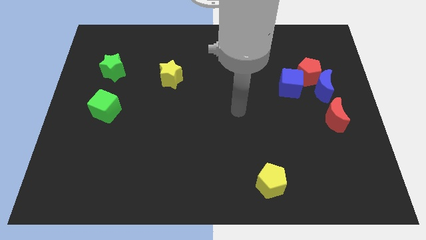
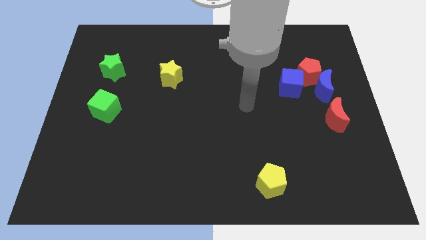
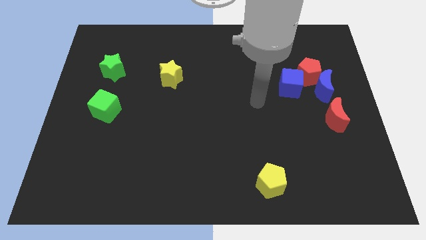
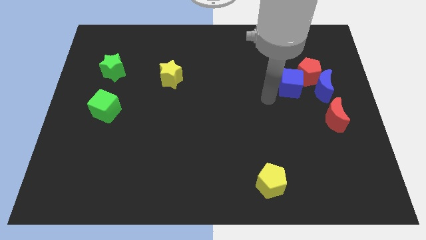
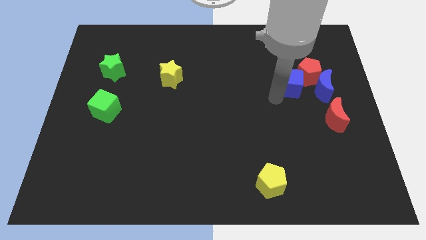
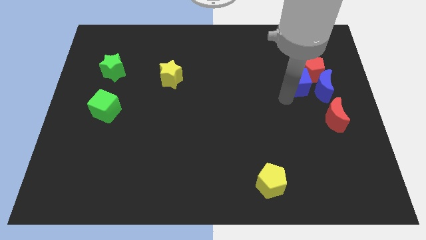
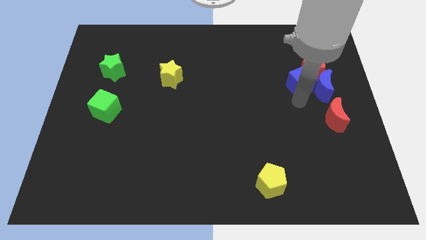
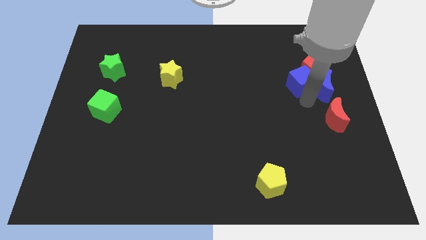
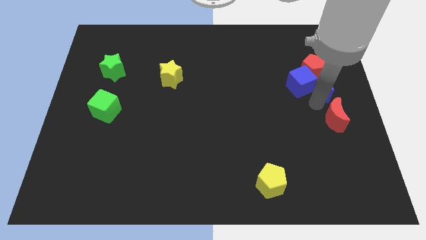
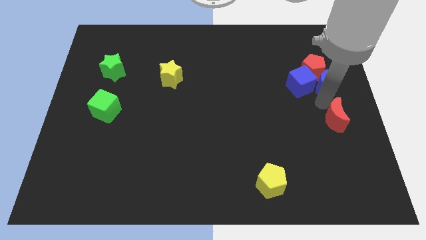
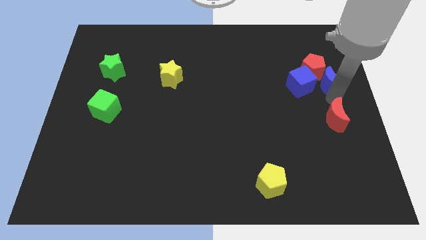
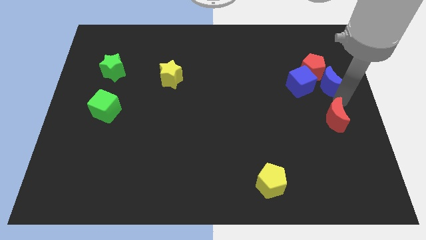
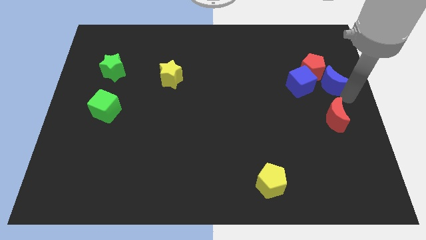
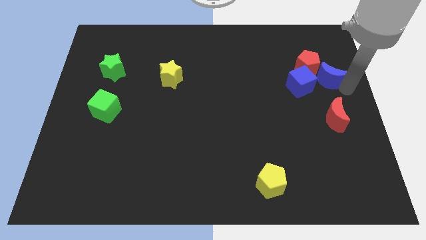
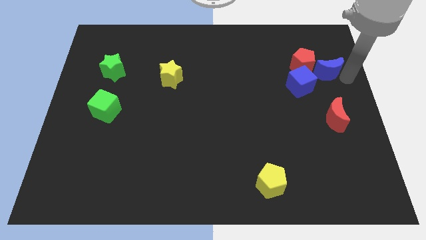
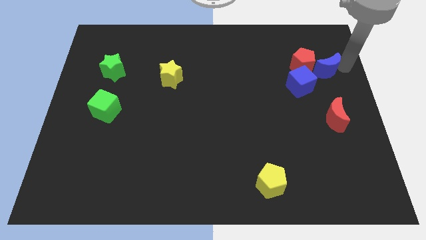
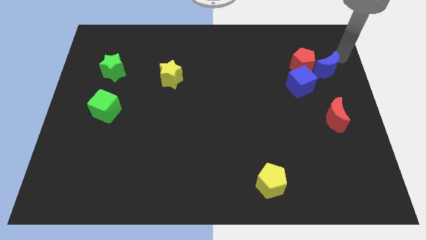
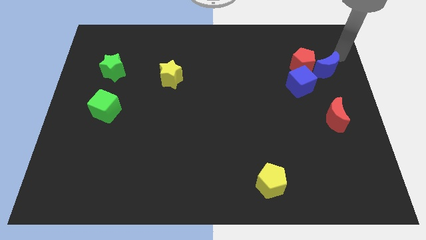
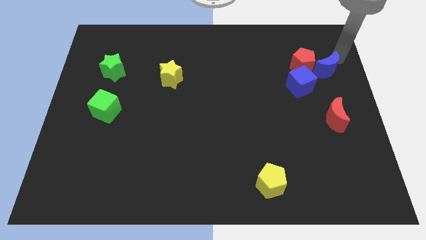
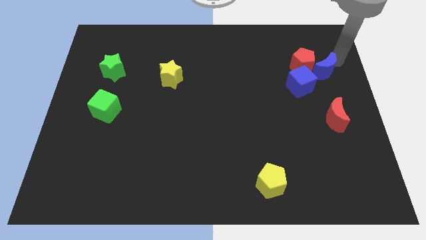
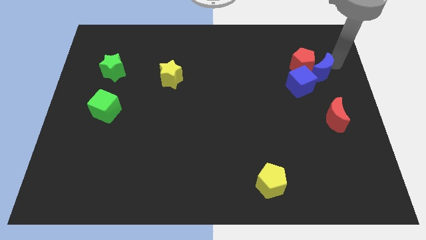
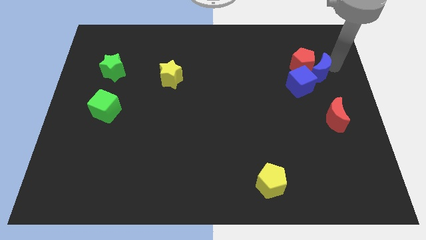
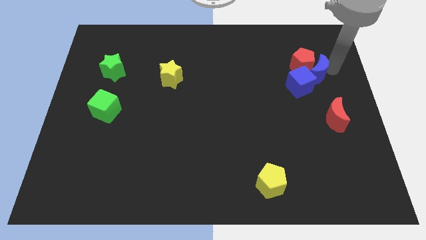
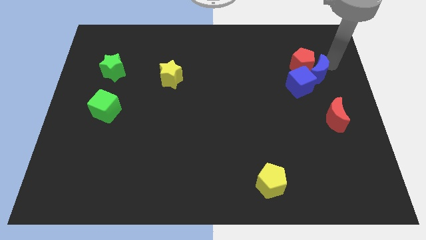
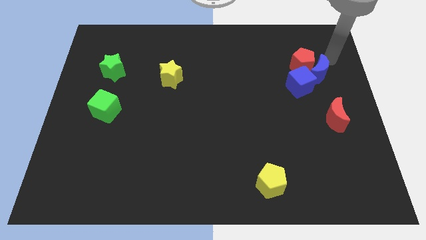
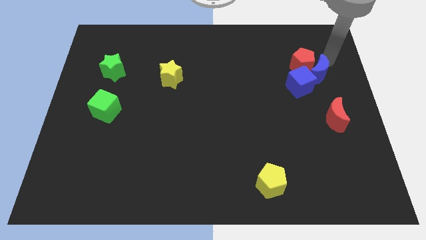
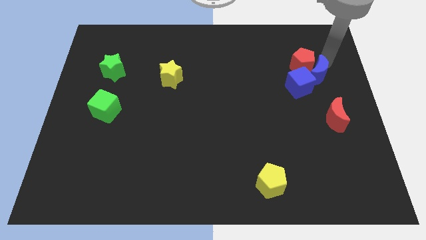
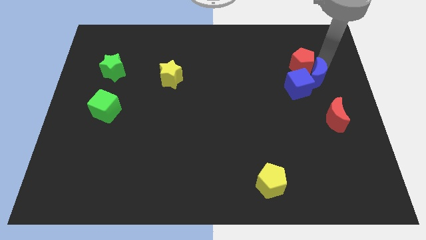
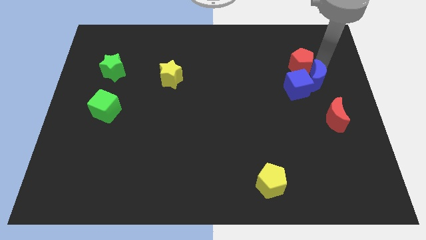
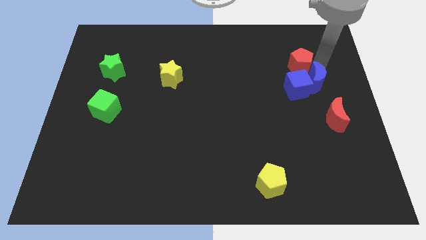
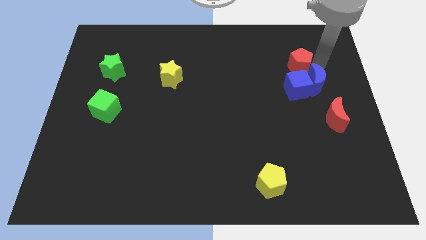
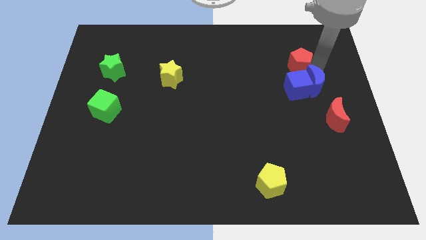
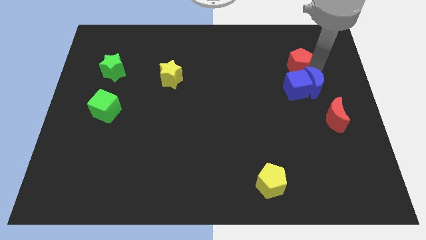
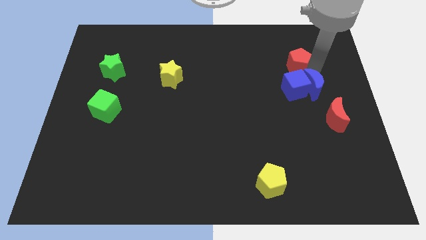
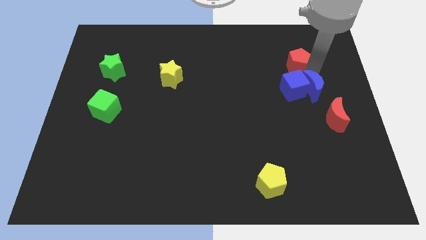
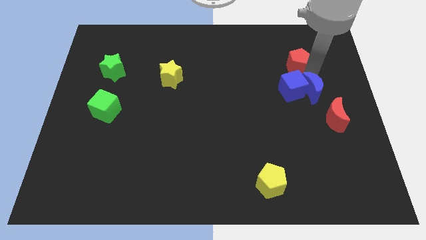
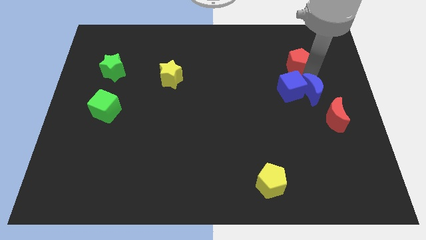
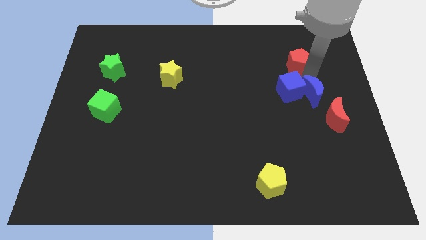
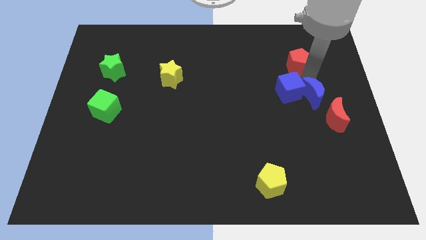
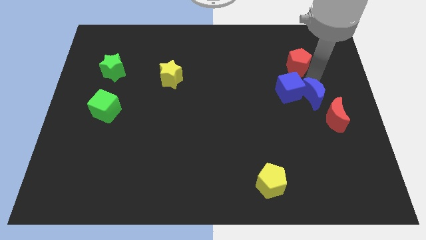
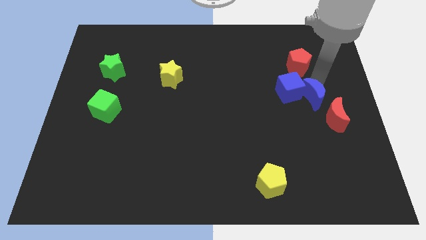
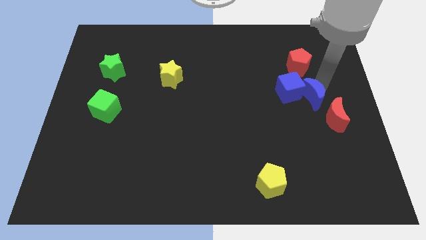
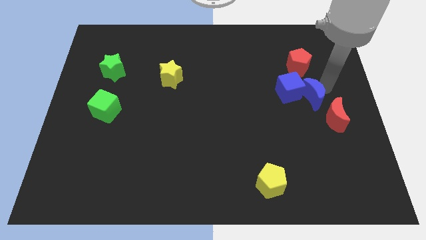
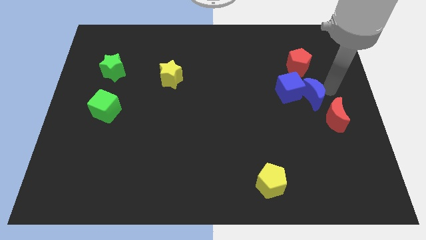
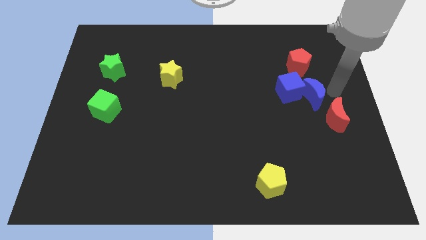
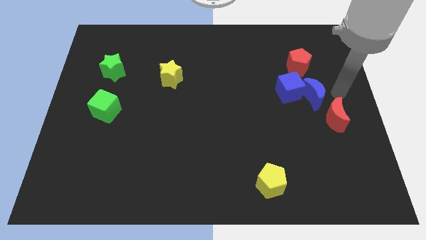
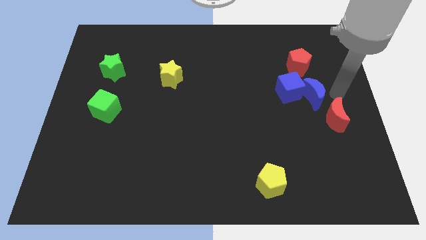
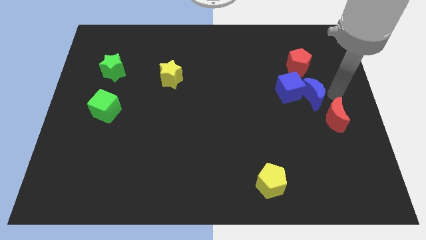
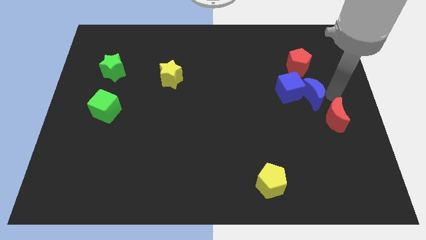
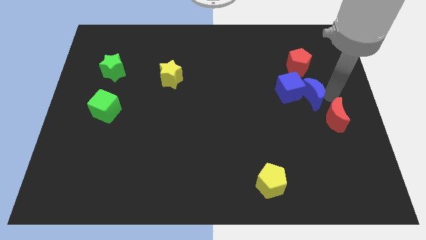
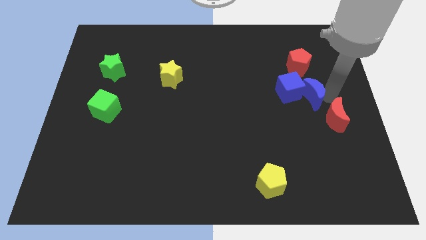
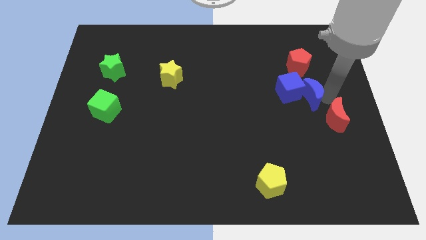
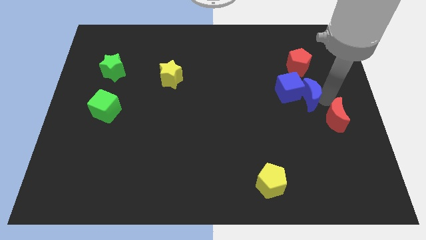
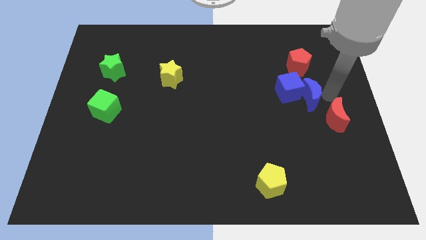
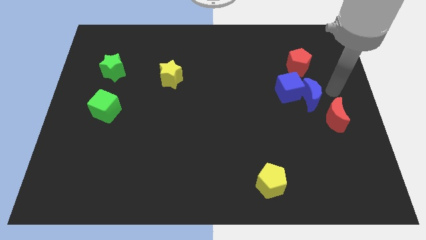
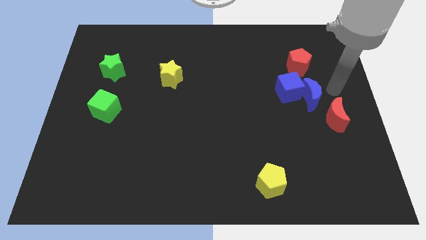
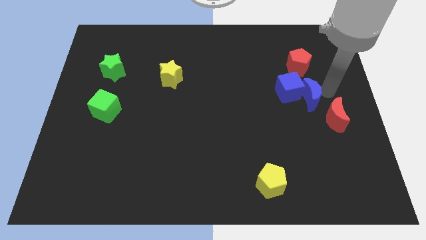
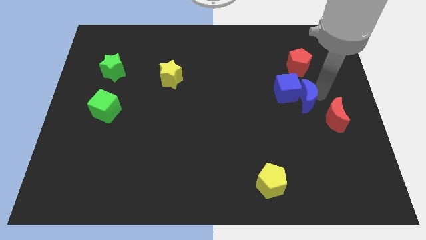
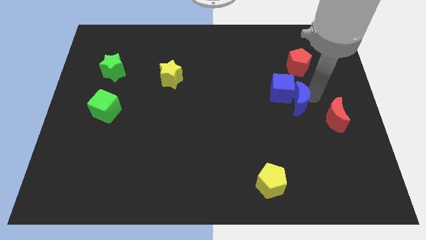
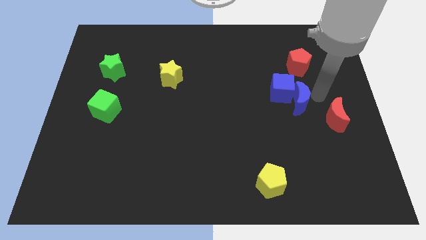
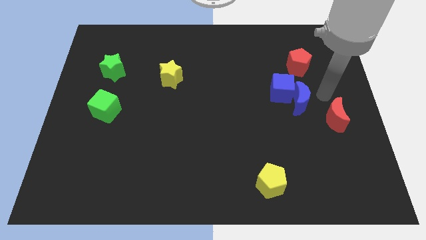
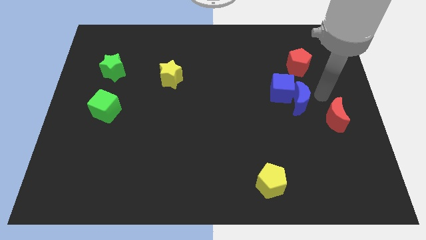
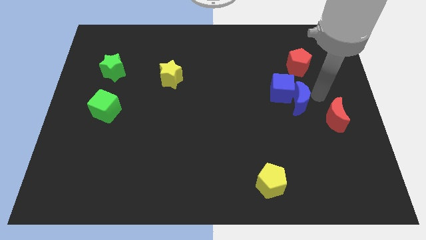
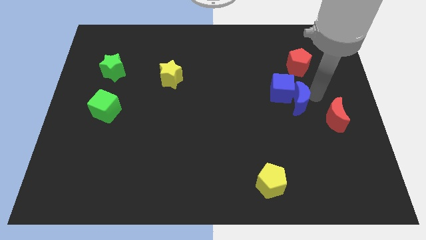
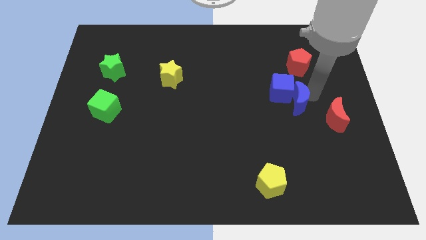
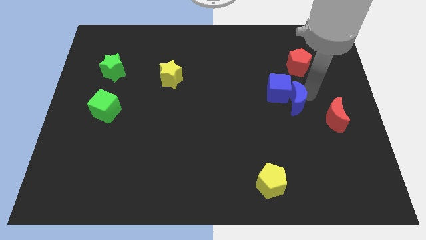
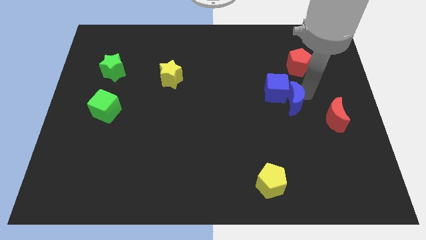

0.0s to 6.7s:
push the blue moon to the left a little

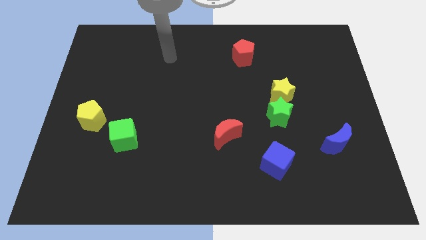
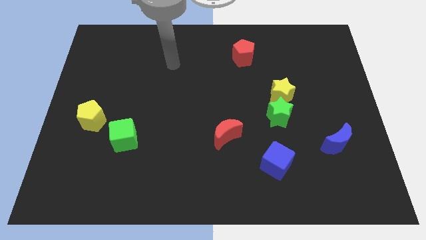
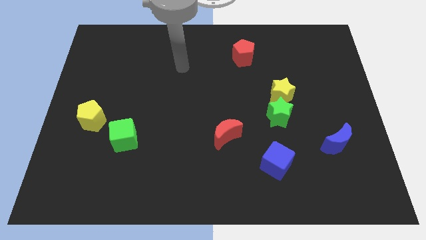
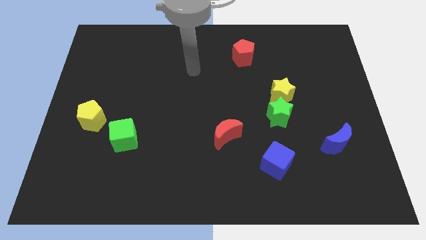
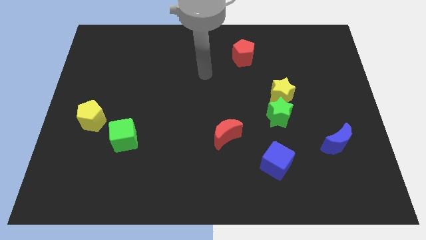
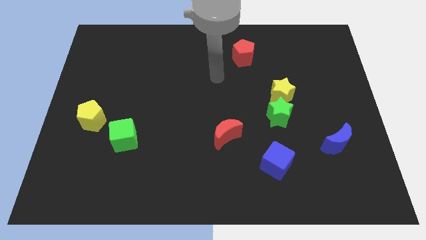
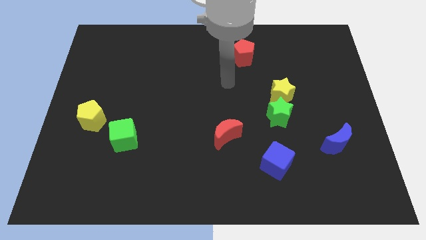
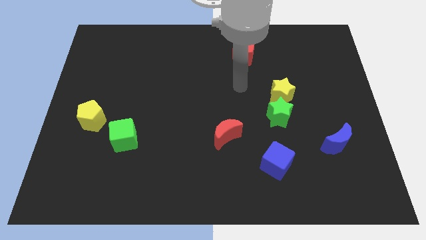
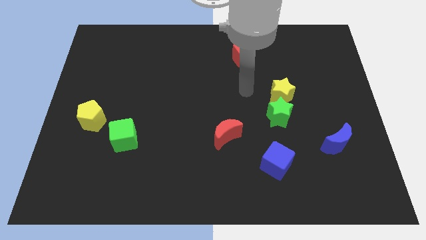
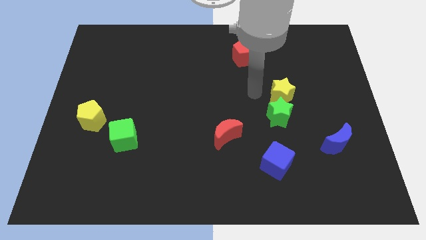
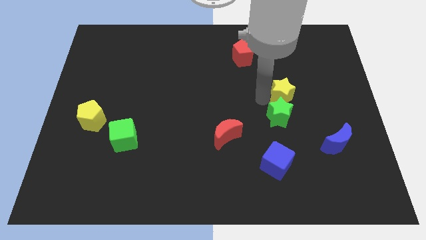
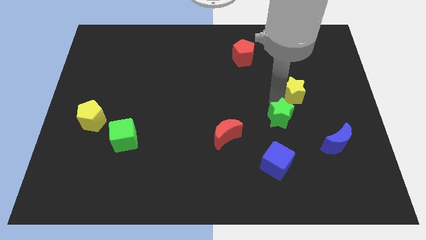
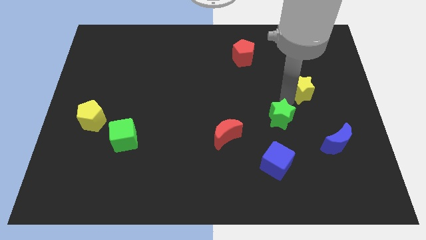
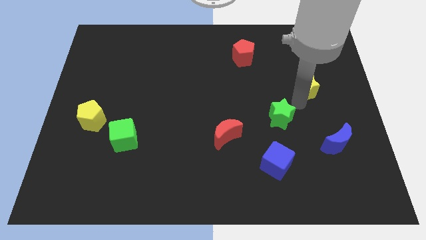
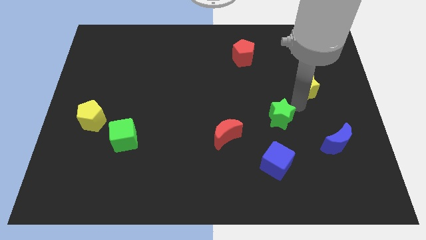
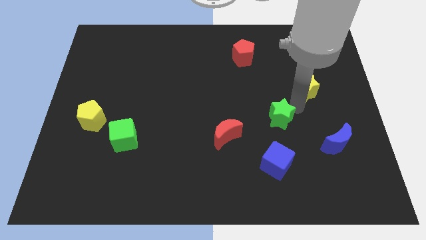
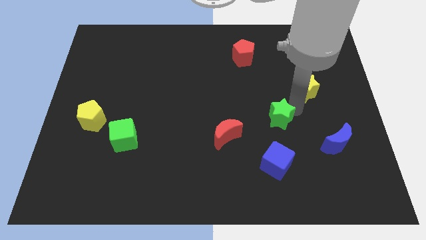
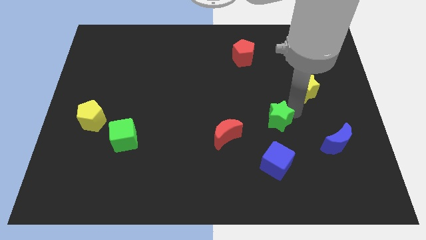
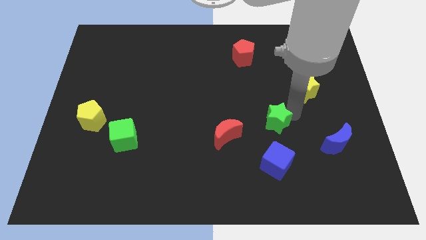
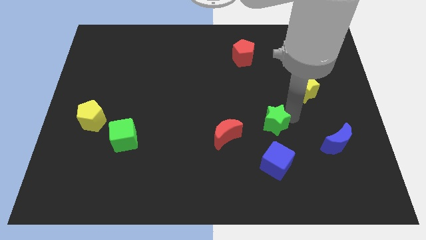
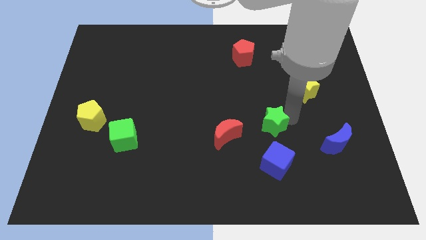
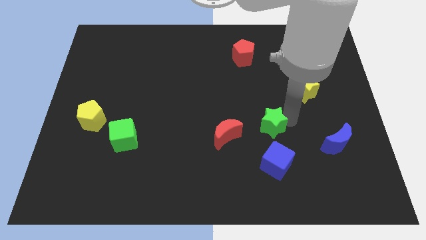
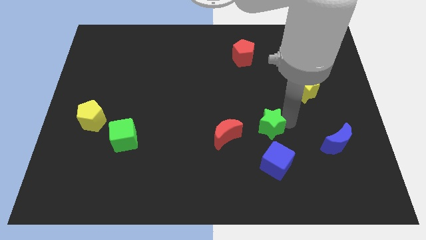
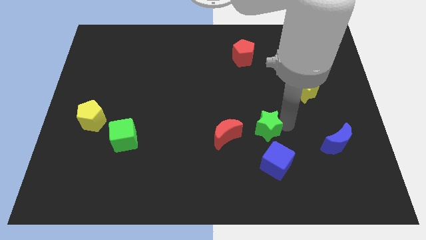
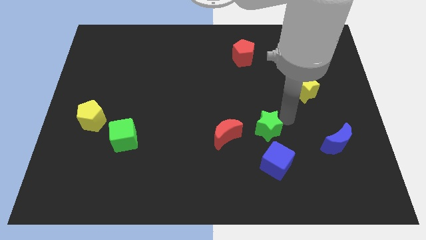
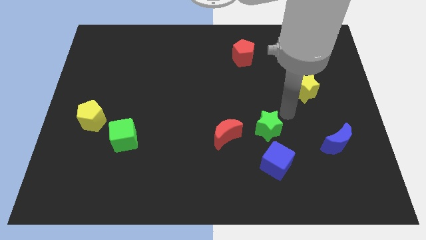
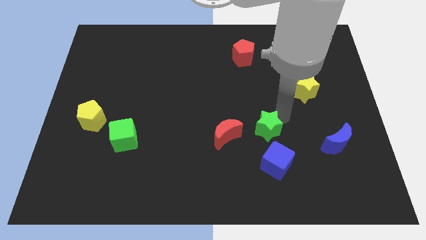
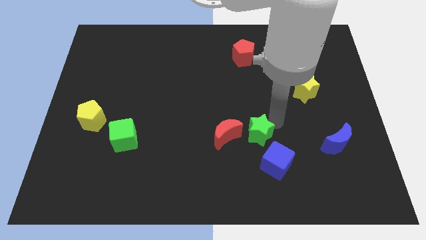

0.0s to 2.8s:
slightly slide the green star down and then to the left
